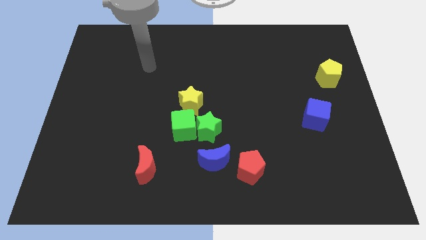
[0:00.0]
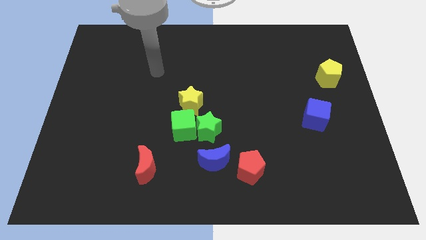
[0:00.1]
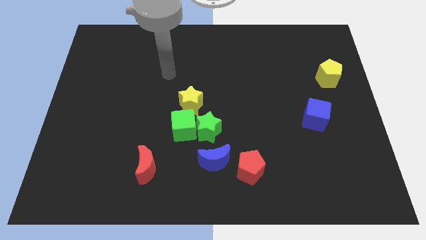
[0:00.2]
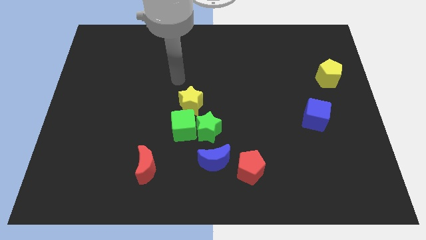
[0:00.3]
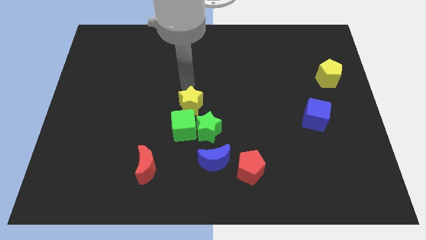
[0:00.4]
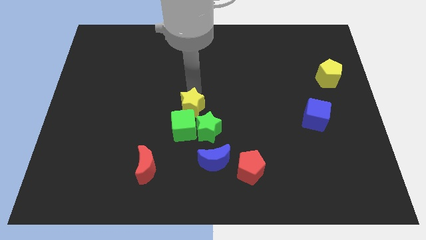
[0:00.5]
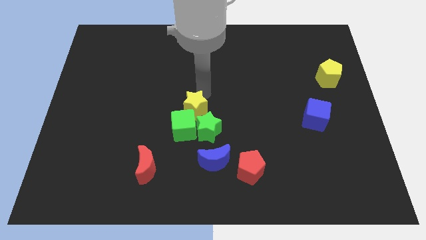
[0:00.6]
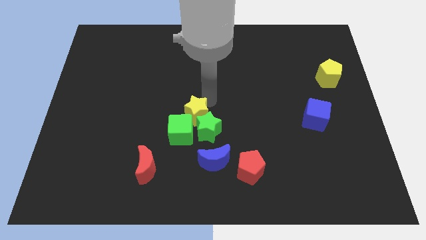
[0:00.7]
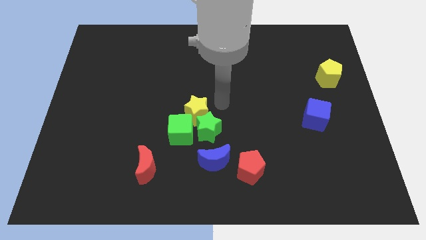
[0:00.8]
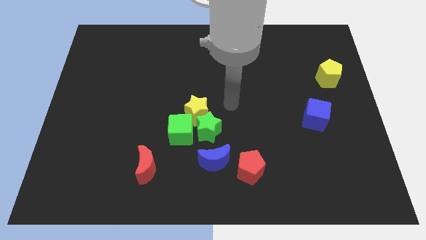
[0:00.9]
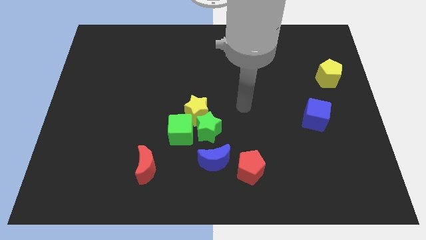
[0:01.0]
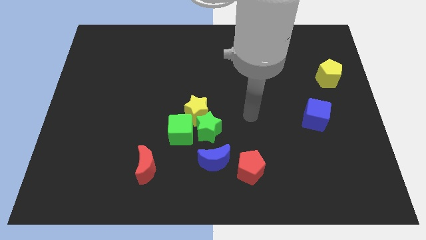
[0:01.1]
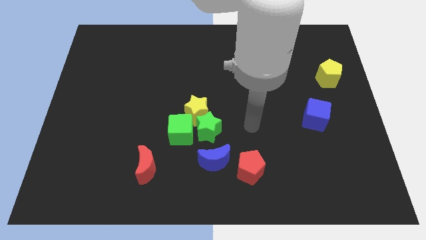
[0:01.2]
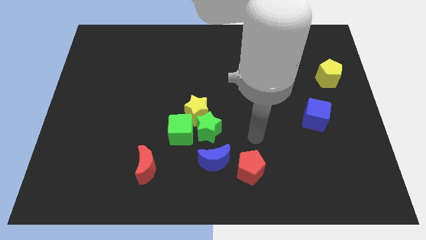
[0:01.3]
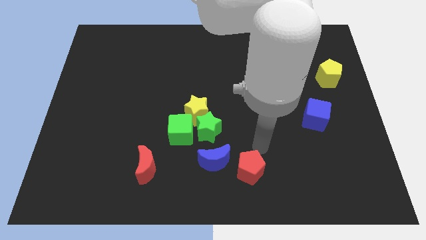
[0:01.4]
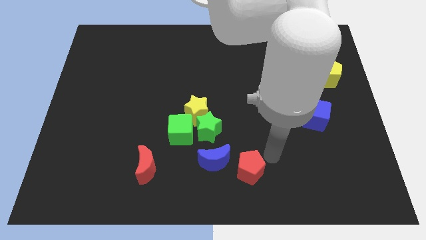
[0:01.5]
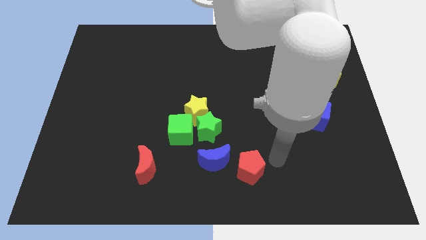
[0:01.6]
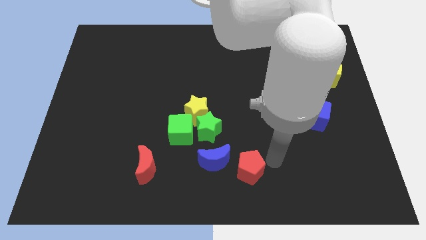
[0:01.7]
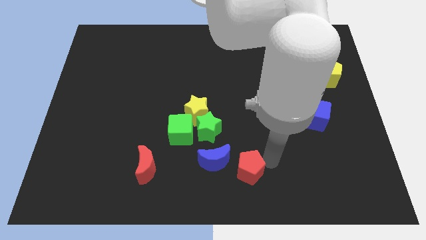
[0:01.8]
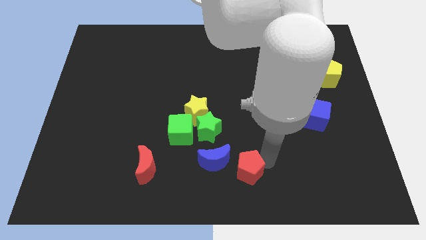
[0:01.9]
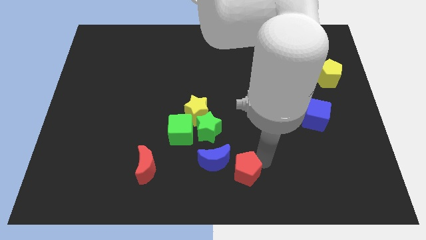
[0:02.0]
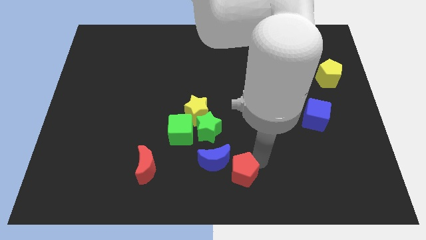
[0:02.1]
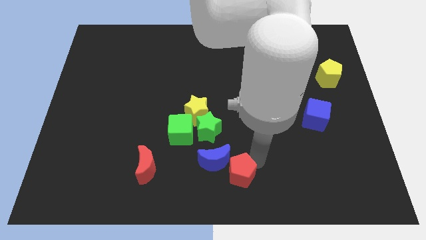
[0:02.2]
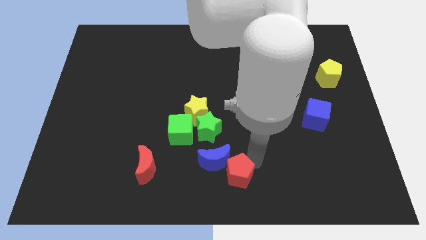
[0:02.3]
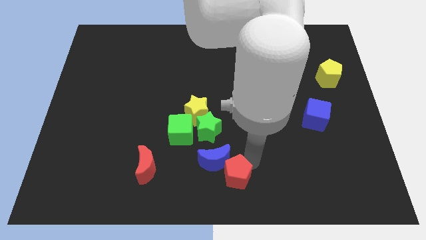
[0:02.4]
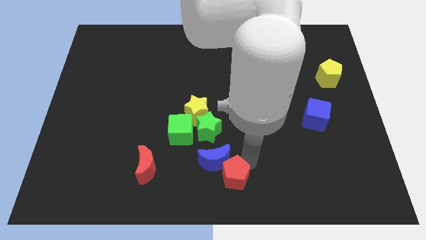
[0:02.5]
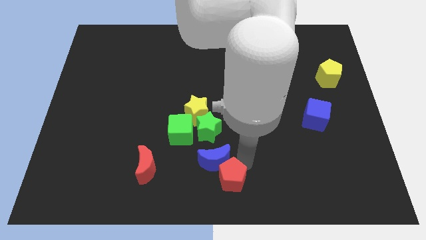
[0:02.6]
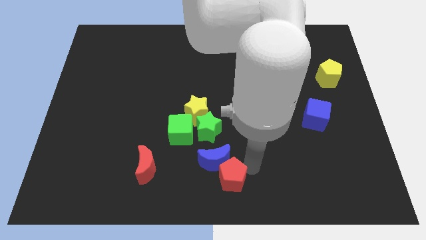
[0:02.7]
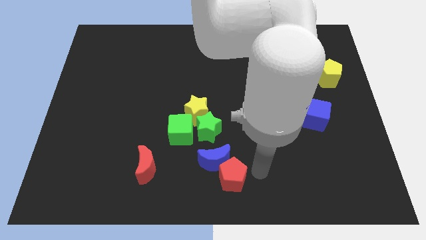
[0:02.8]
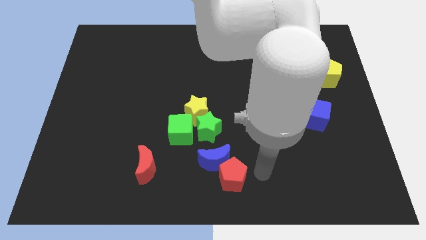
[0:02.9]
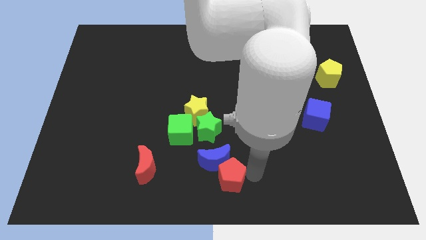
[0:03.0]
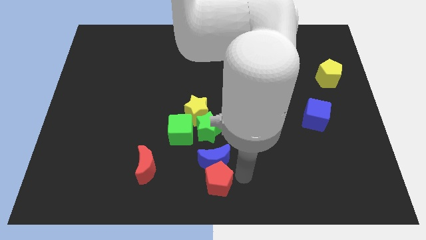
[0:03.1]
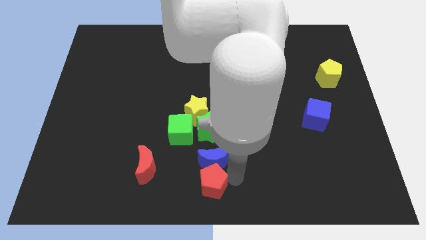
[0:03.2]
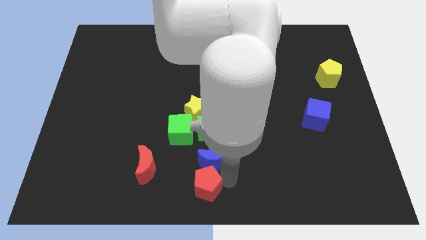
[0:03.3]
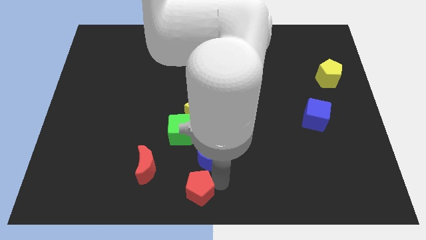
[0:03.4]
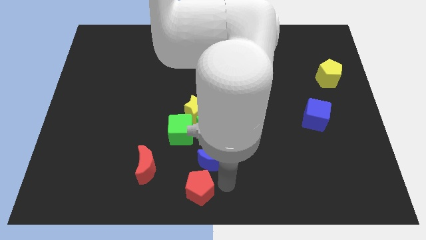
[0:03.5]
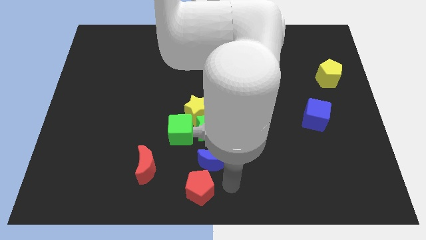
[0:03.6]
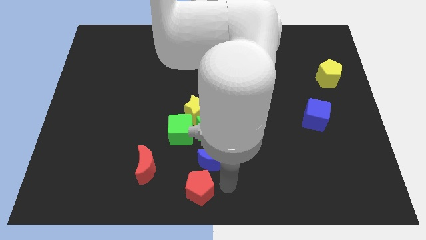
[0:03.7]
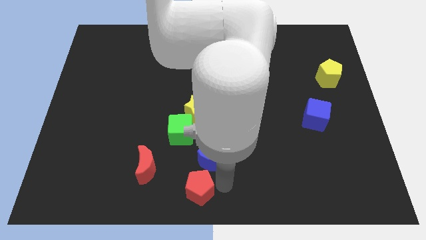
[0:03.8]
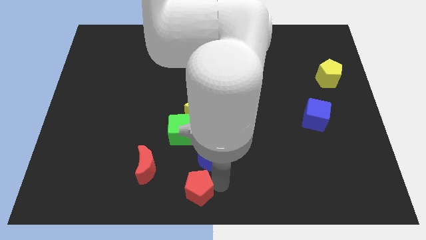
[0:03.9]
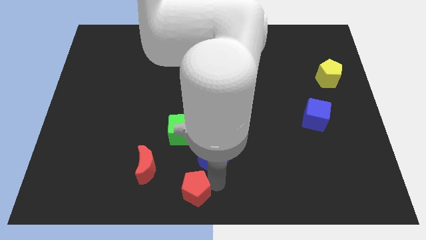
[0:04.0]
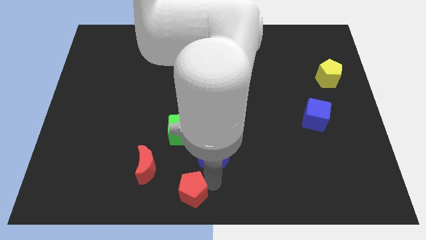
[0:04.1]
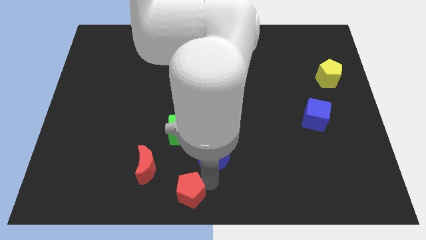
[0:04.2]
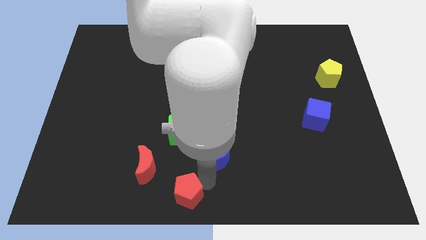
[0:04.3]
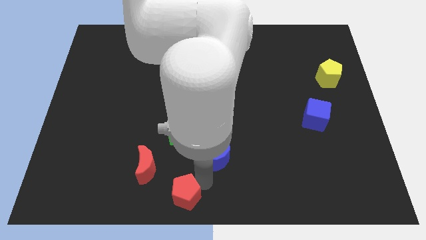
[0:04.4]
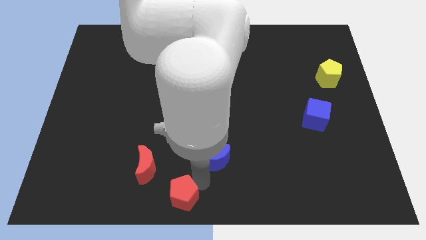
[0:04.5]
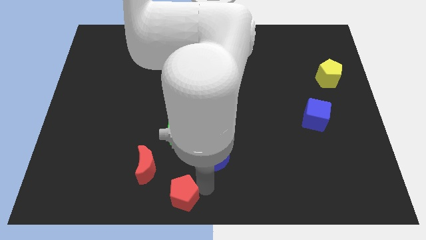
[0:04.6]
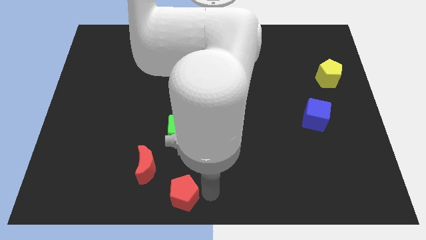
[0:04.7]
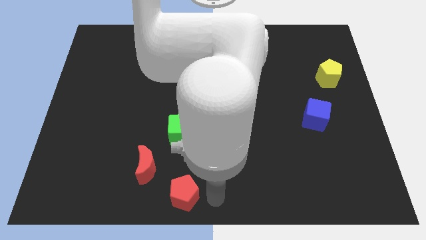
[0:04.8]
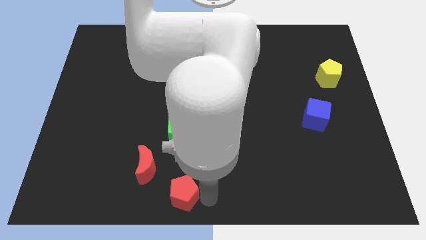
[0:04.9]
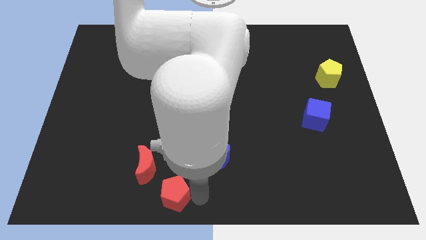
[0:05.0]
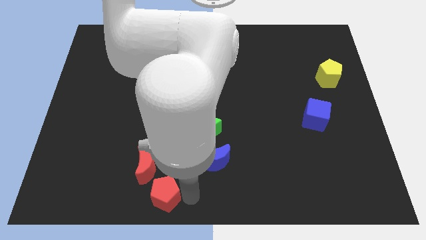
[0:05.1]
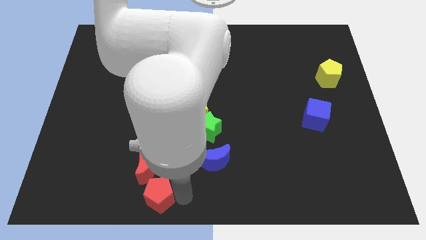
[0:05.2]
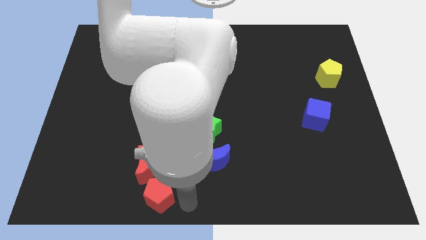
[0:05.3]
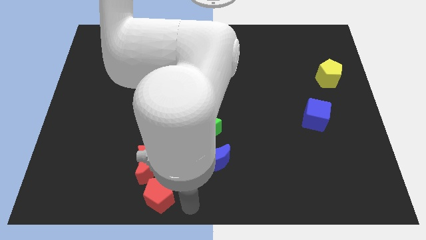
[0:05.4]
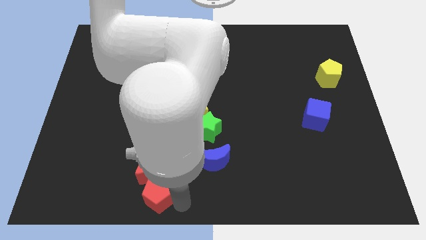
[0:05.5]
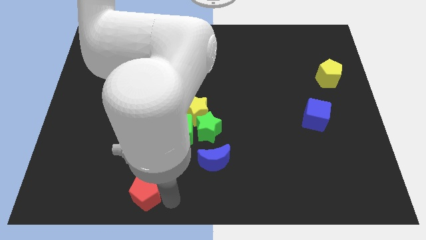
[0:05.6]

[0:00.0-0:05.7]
push the red pentagon to the left

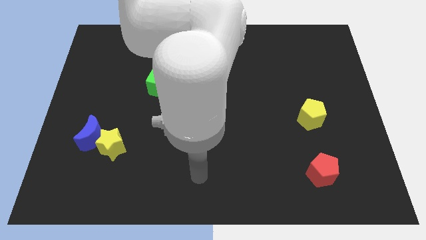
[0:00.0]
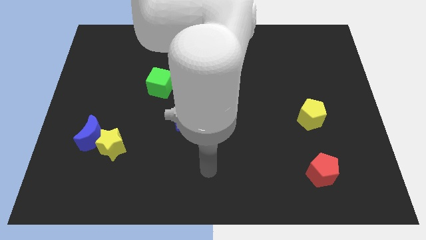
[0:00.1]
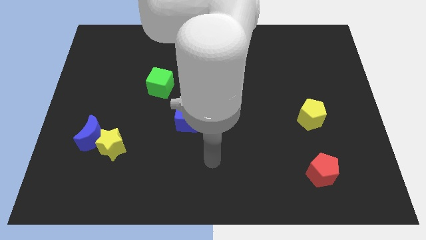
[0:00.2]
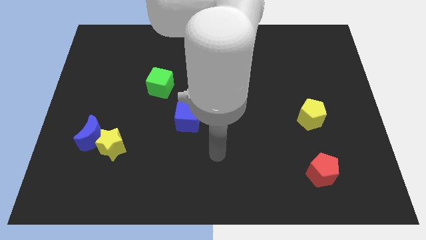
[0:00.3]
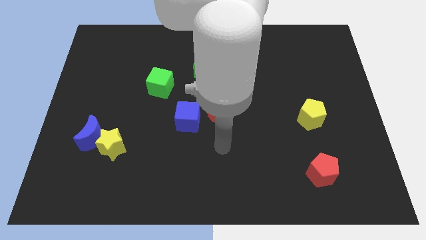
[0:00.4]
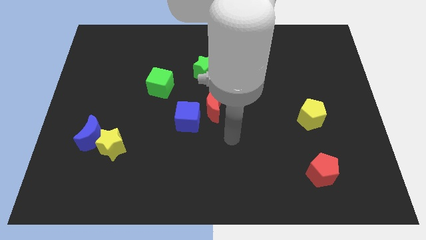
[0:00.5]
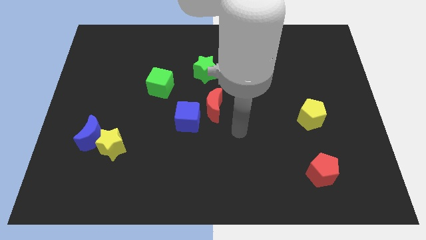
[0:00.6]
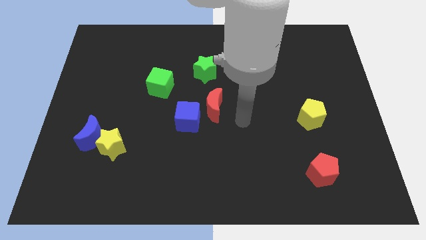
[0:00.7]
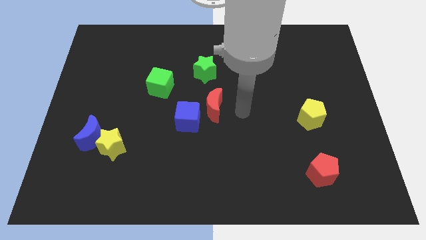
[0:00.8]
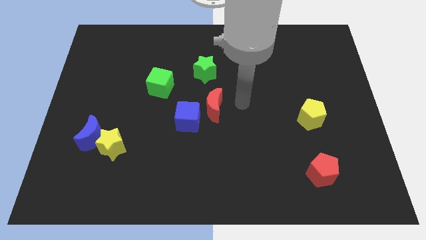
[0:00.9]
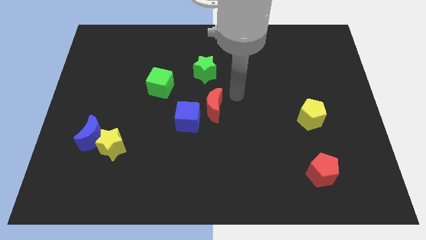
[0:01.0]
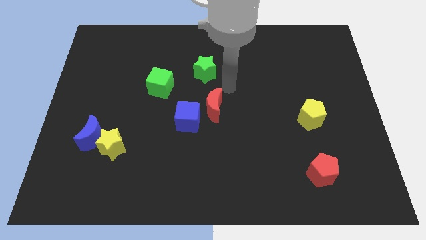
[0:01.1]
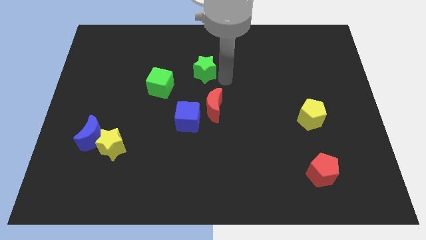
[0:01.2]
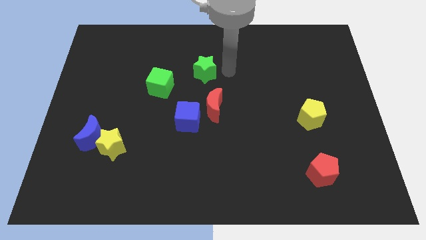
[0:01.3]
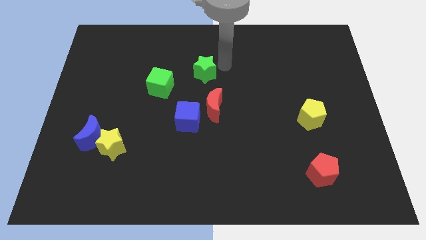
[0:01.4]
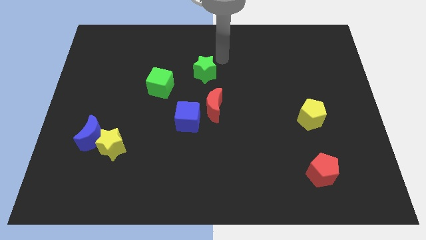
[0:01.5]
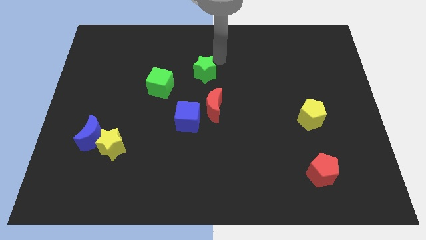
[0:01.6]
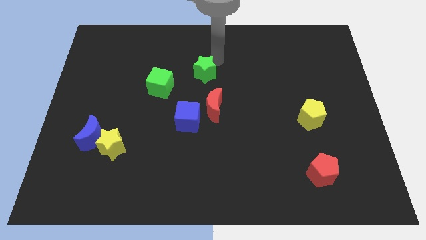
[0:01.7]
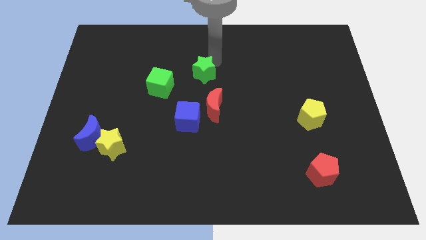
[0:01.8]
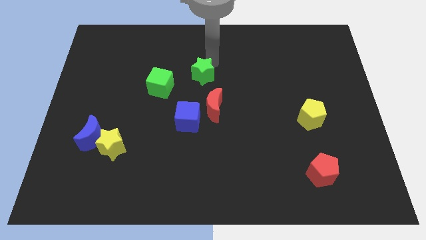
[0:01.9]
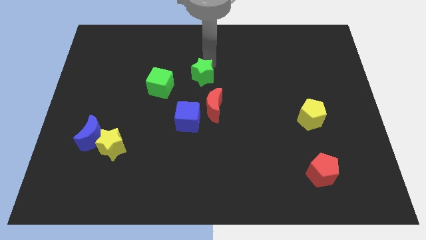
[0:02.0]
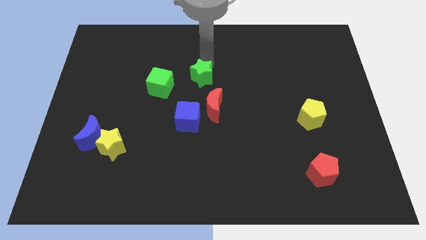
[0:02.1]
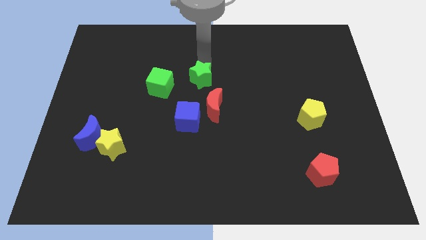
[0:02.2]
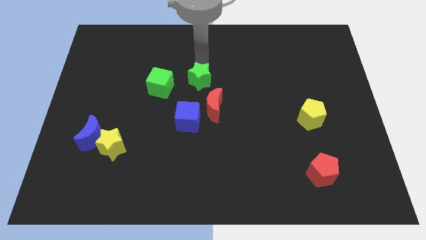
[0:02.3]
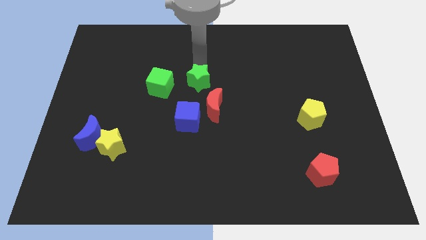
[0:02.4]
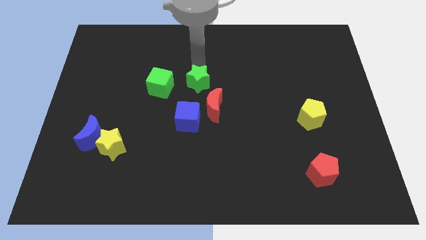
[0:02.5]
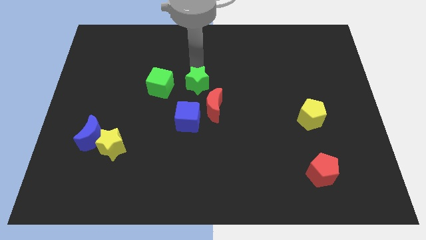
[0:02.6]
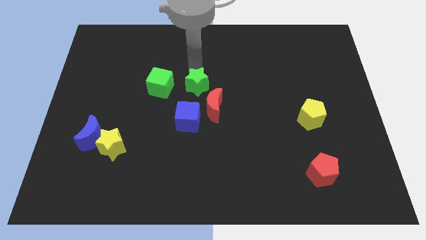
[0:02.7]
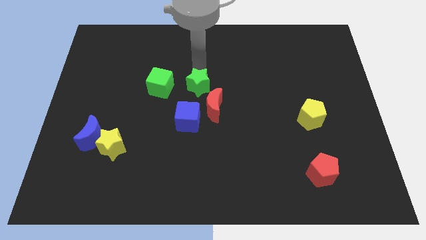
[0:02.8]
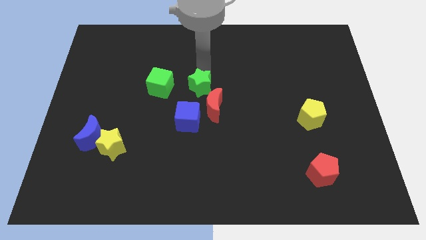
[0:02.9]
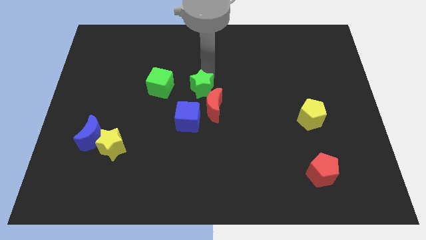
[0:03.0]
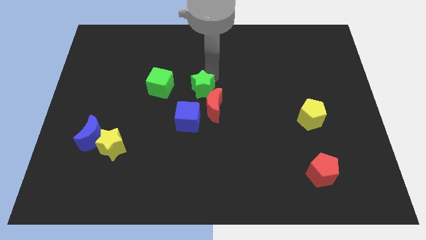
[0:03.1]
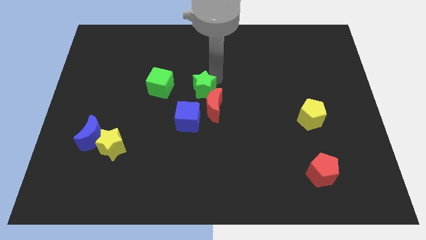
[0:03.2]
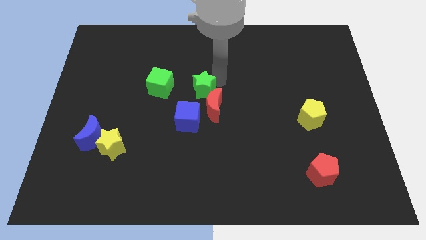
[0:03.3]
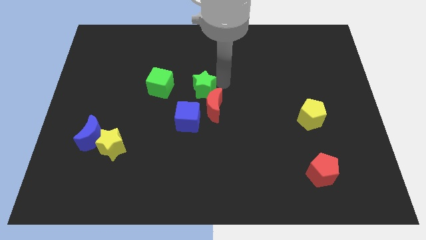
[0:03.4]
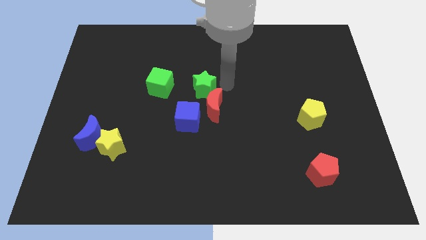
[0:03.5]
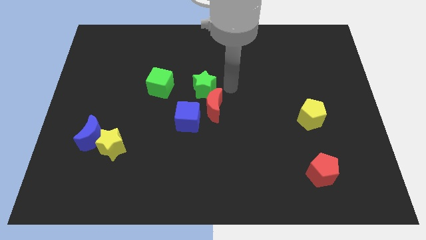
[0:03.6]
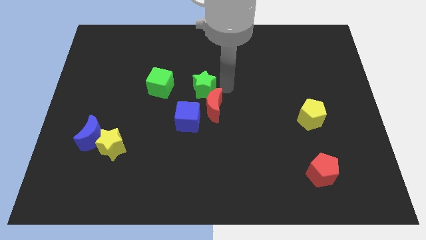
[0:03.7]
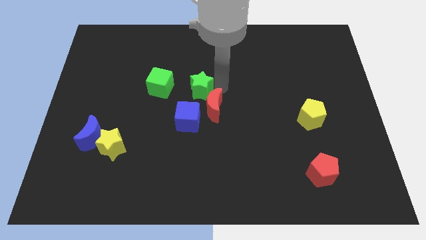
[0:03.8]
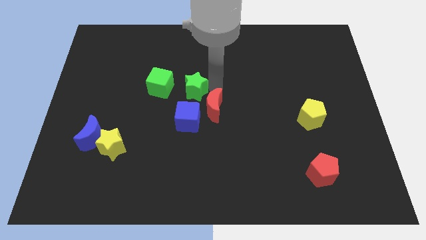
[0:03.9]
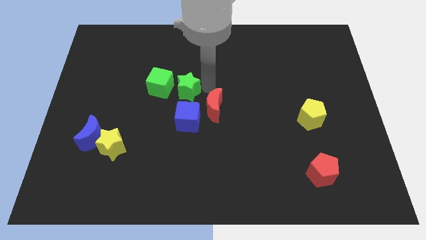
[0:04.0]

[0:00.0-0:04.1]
slightly push the green star downwards and then to the left
